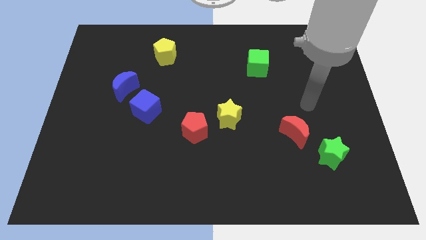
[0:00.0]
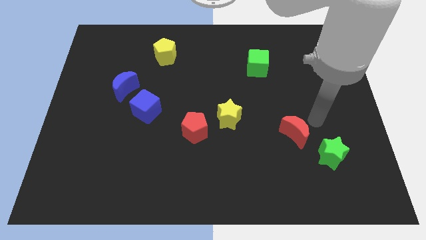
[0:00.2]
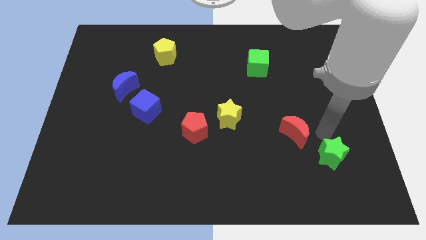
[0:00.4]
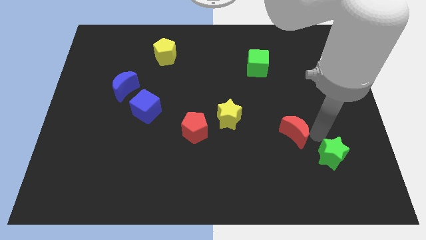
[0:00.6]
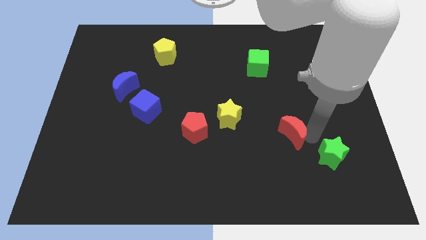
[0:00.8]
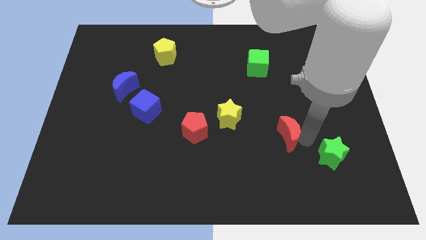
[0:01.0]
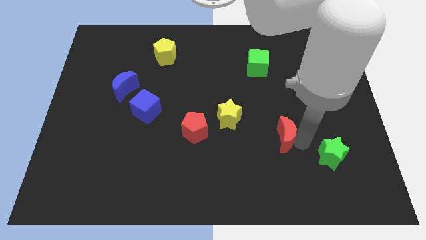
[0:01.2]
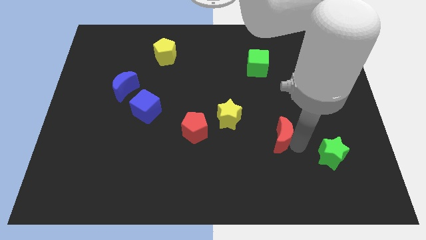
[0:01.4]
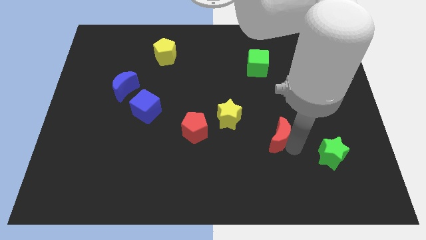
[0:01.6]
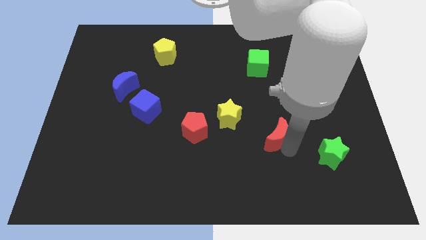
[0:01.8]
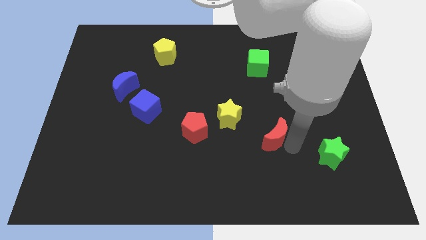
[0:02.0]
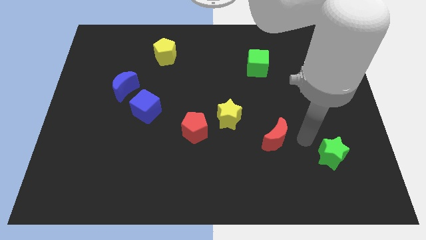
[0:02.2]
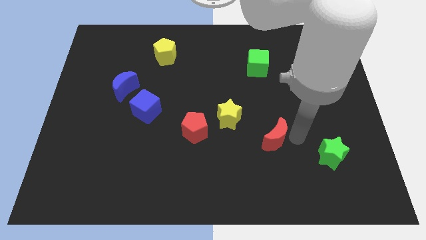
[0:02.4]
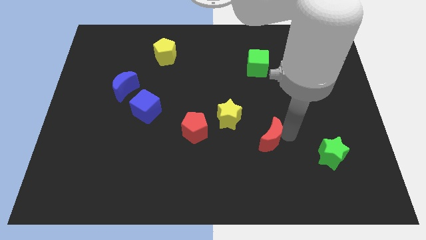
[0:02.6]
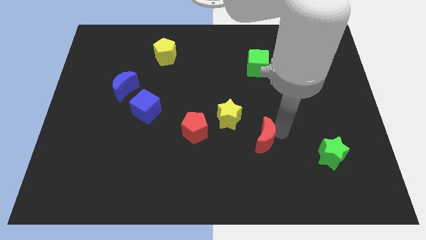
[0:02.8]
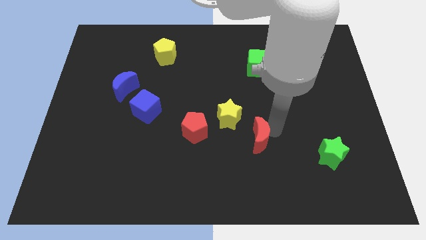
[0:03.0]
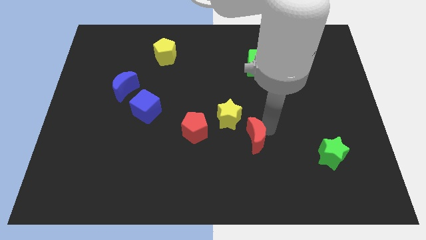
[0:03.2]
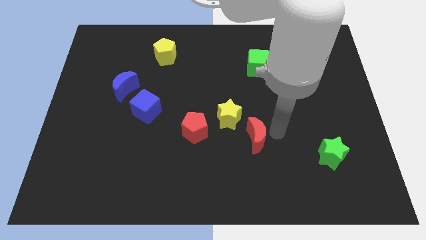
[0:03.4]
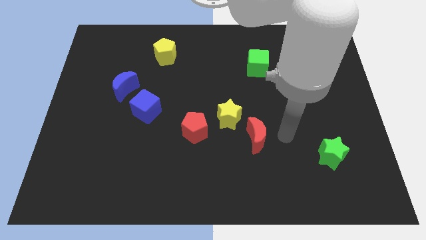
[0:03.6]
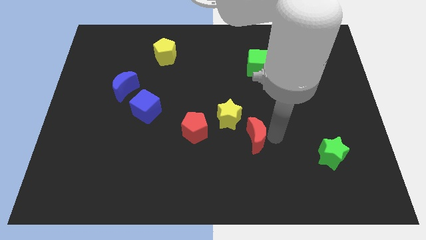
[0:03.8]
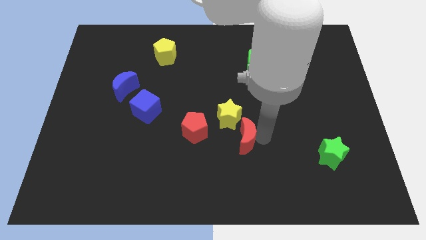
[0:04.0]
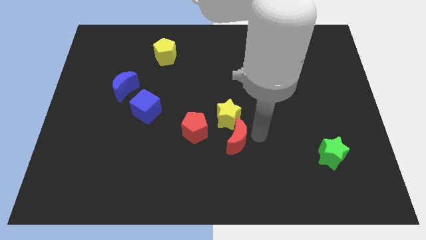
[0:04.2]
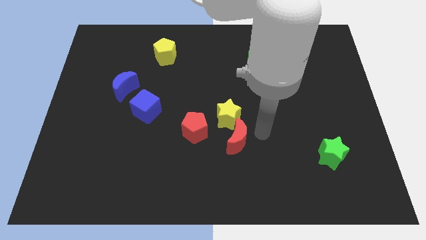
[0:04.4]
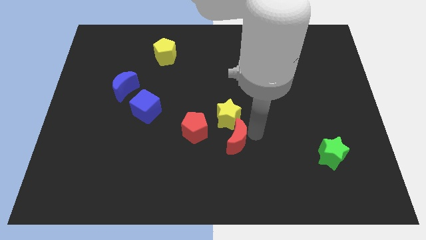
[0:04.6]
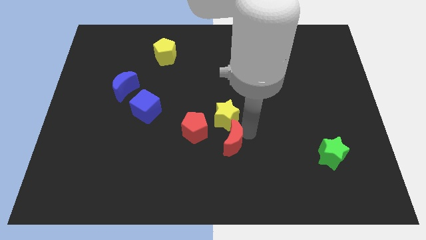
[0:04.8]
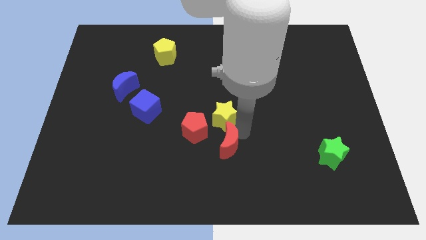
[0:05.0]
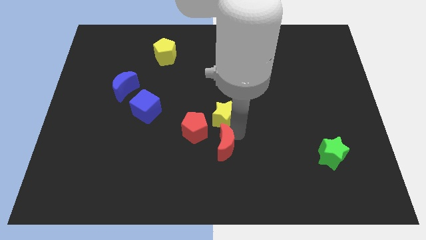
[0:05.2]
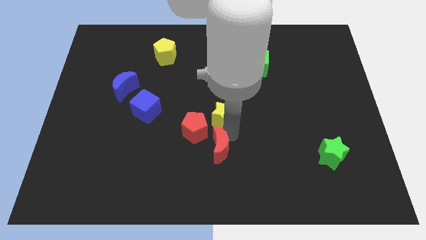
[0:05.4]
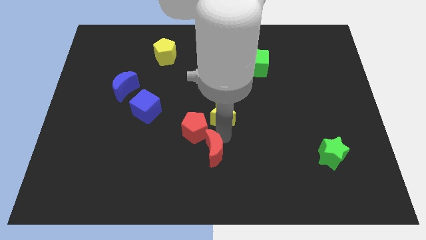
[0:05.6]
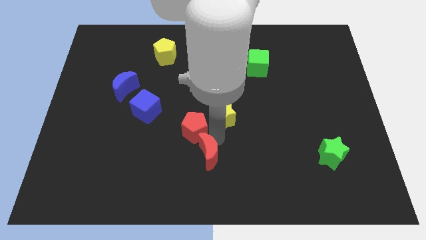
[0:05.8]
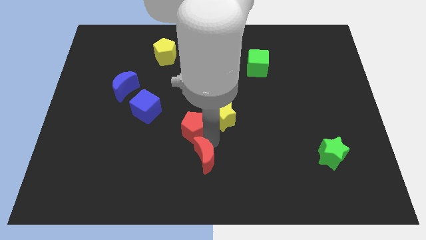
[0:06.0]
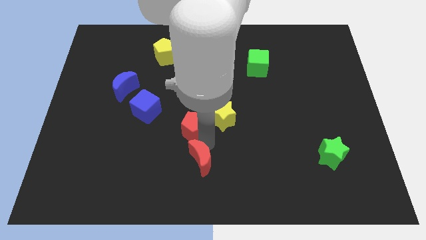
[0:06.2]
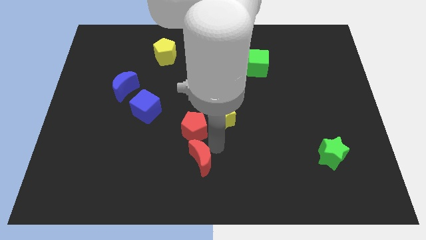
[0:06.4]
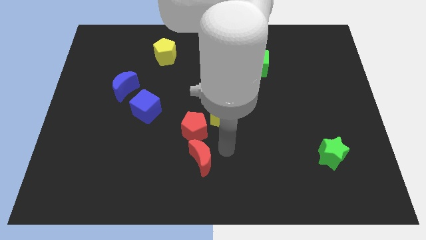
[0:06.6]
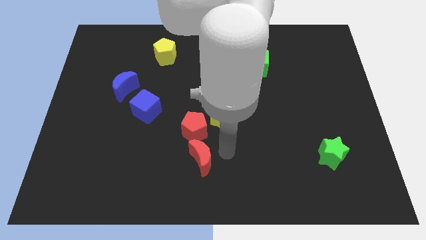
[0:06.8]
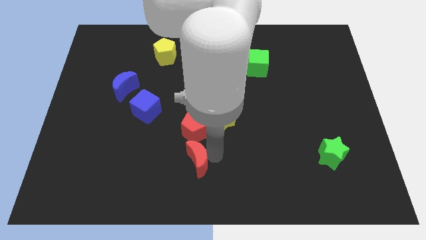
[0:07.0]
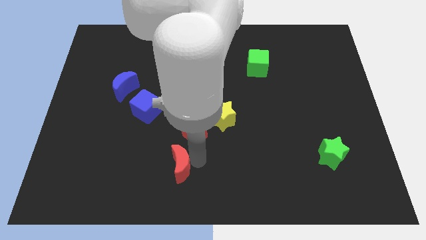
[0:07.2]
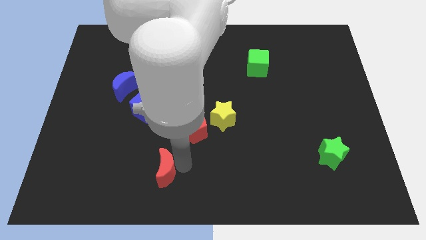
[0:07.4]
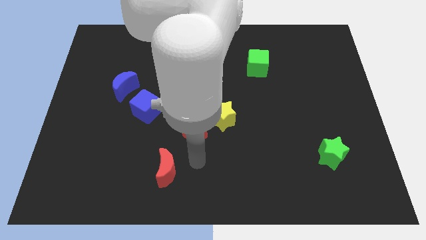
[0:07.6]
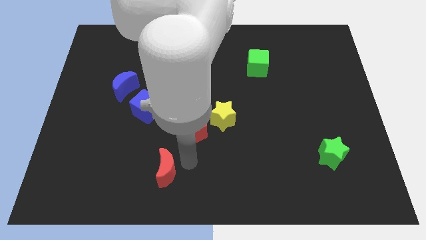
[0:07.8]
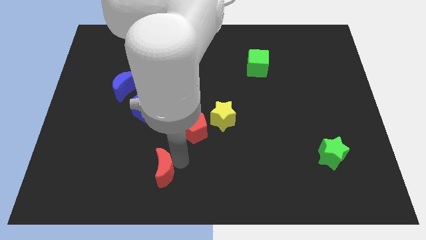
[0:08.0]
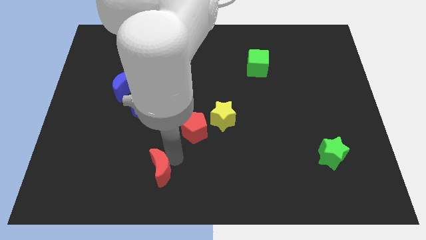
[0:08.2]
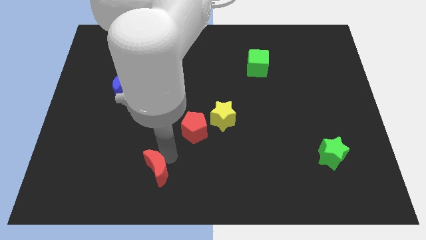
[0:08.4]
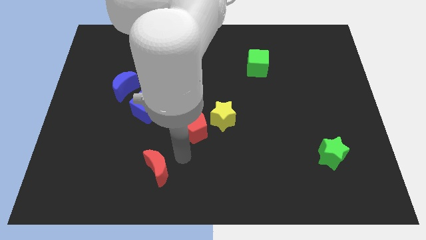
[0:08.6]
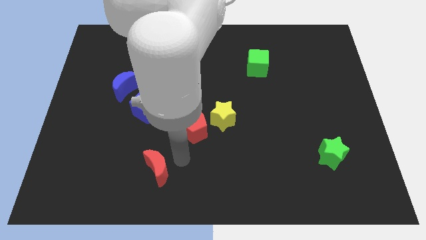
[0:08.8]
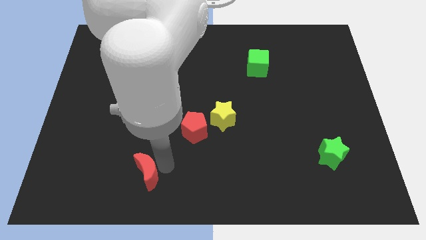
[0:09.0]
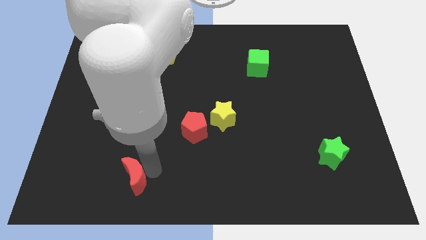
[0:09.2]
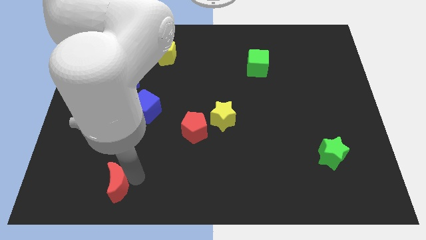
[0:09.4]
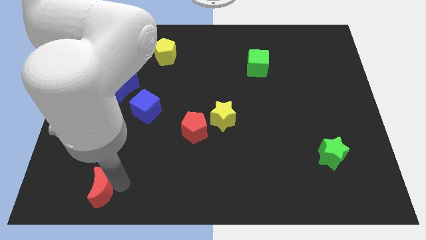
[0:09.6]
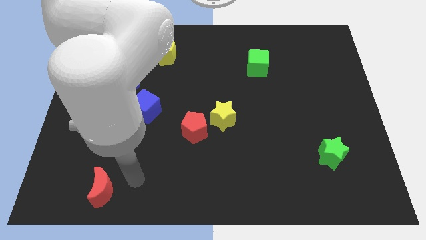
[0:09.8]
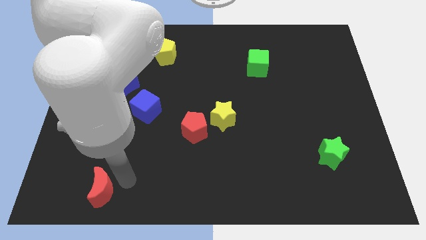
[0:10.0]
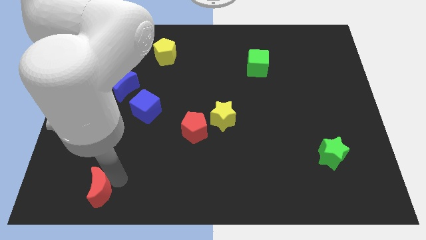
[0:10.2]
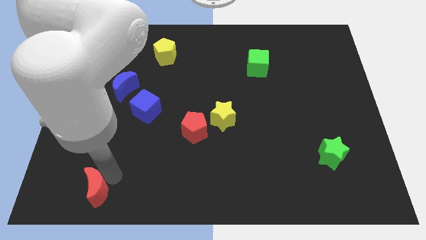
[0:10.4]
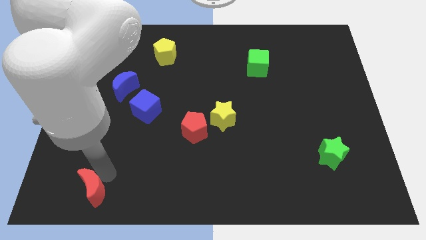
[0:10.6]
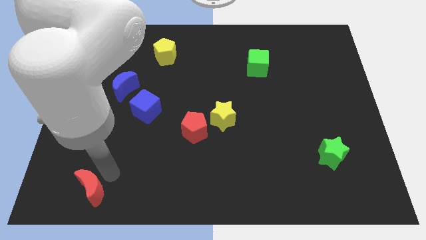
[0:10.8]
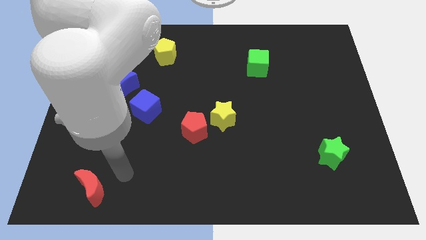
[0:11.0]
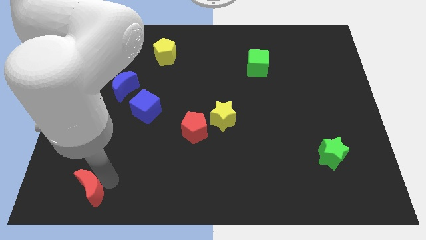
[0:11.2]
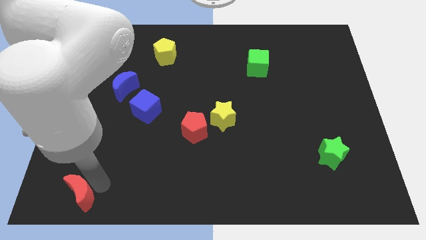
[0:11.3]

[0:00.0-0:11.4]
put the red moon to the lower left corner

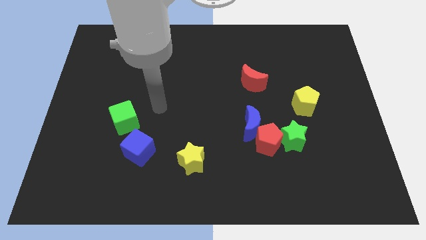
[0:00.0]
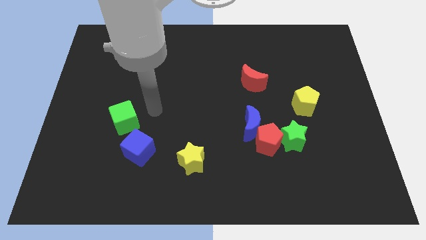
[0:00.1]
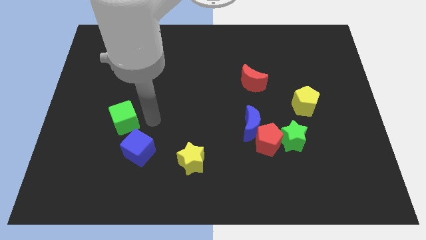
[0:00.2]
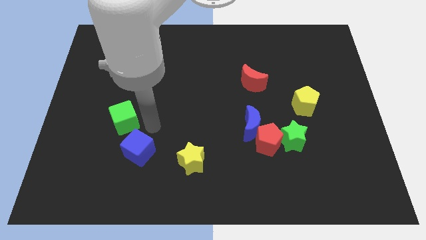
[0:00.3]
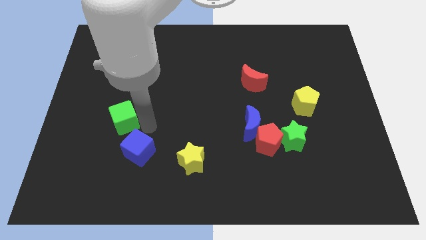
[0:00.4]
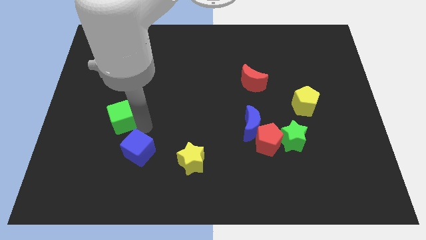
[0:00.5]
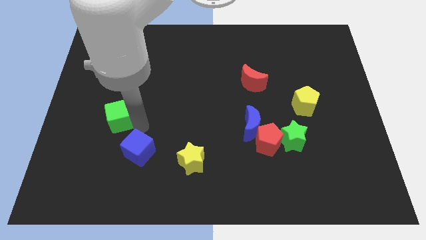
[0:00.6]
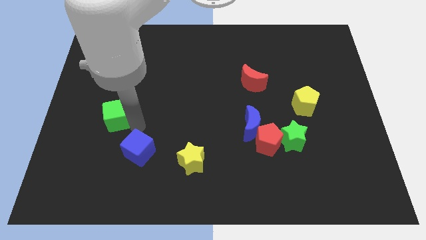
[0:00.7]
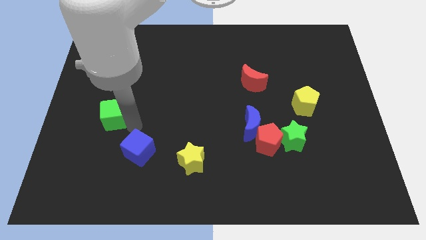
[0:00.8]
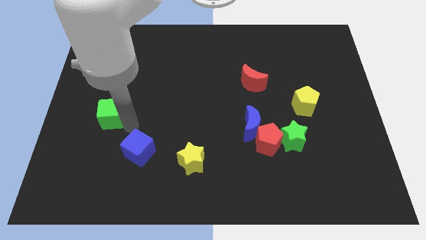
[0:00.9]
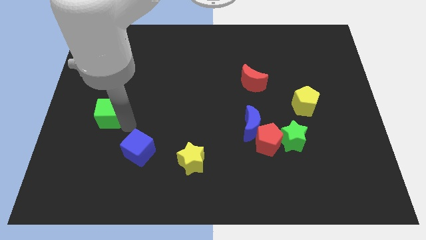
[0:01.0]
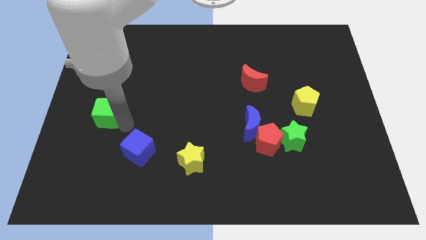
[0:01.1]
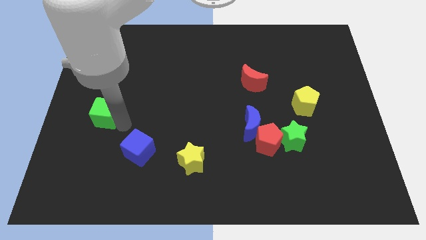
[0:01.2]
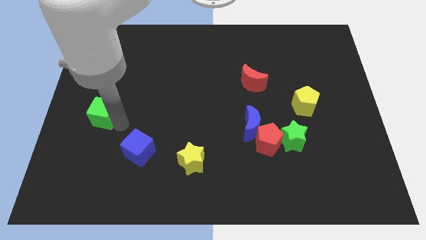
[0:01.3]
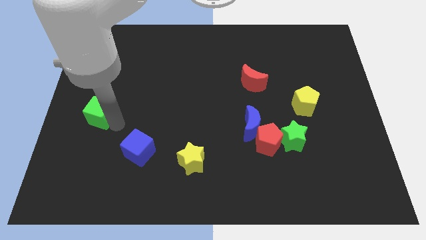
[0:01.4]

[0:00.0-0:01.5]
move the green cube to the left side of the board
